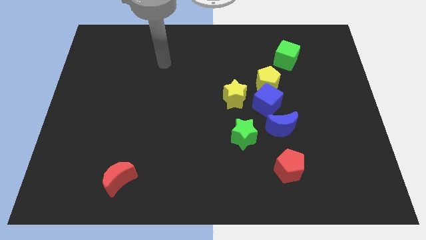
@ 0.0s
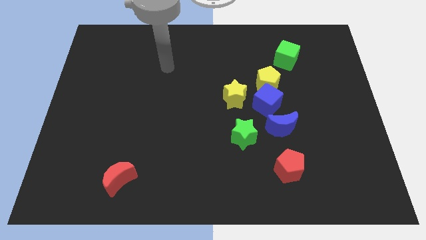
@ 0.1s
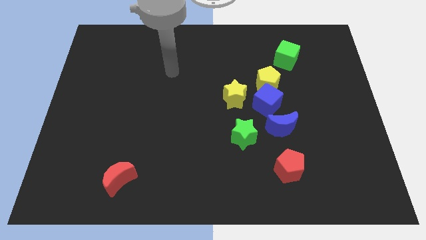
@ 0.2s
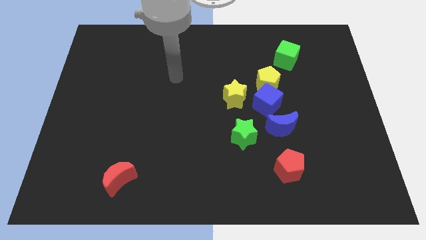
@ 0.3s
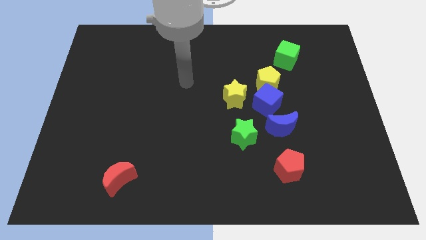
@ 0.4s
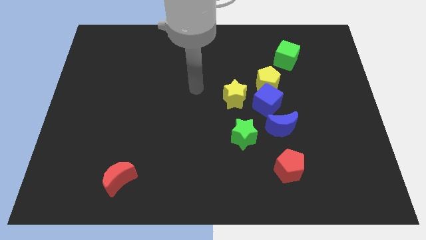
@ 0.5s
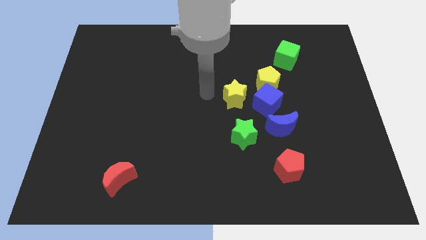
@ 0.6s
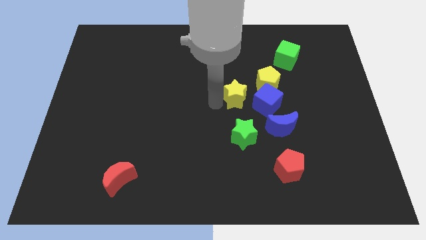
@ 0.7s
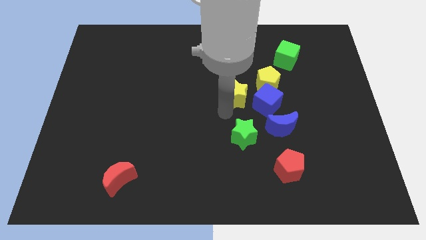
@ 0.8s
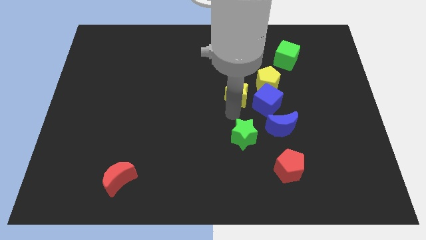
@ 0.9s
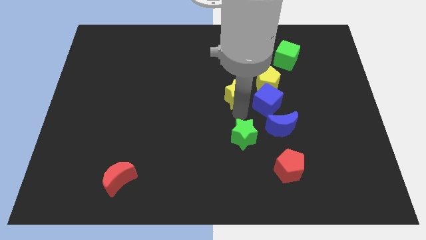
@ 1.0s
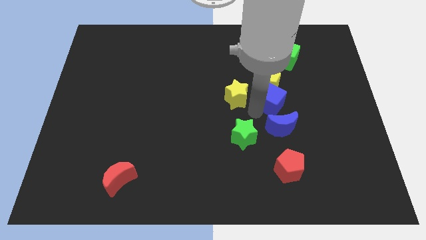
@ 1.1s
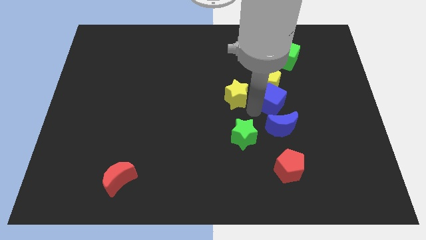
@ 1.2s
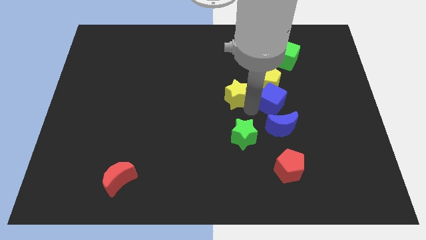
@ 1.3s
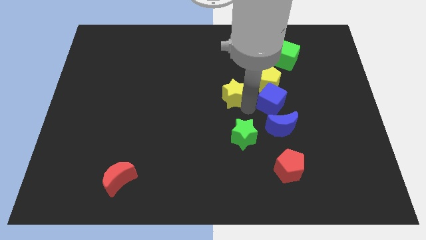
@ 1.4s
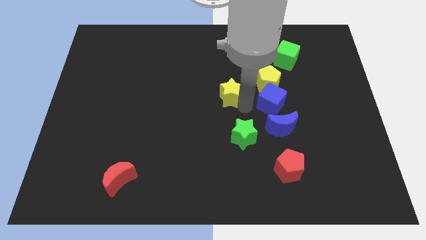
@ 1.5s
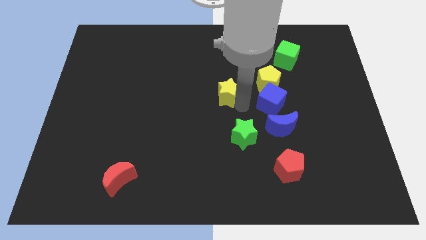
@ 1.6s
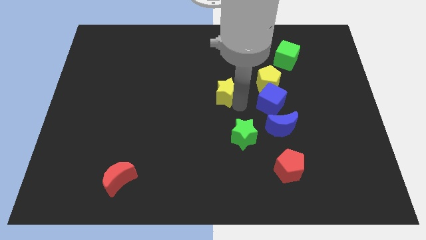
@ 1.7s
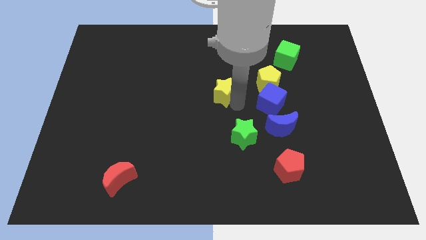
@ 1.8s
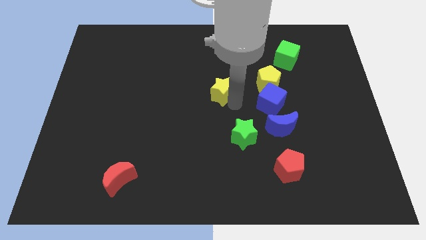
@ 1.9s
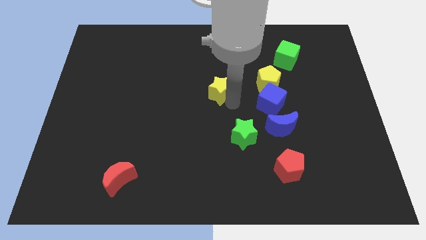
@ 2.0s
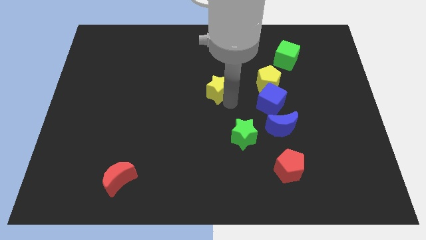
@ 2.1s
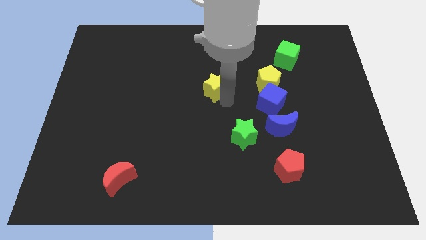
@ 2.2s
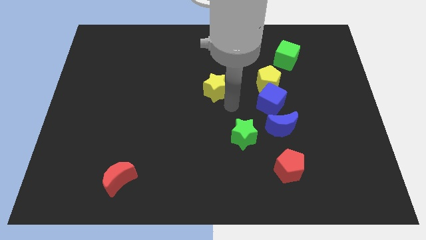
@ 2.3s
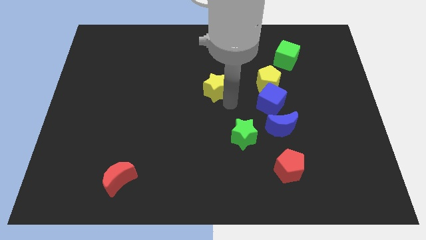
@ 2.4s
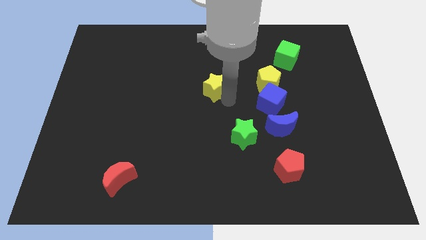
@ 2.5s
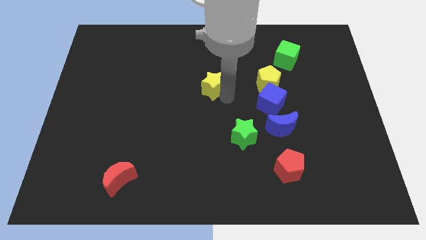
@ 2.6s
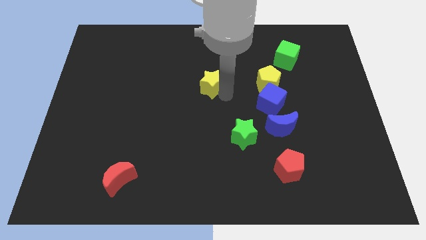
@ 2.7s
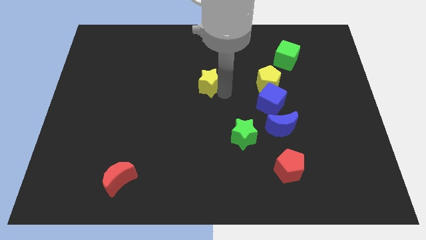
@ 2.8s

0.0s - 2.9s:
slightly move the yellow star diagonally up and to the left

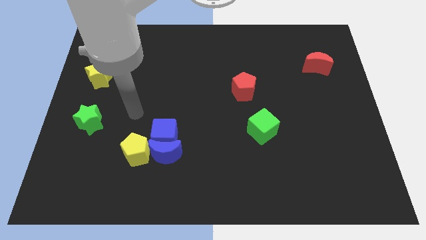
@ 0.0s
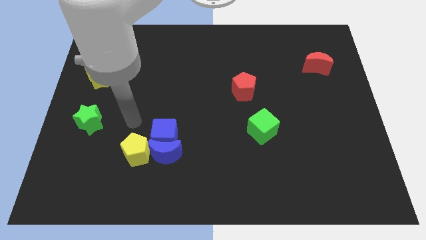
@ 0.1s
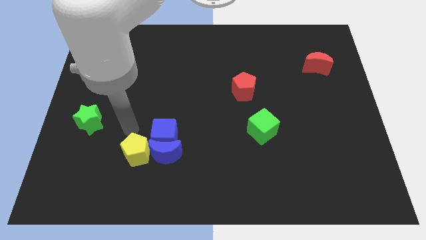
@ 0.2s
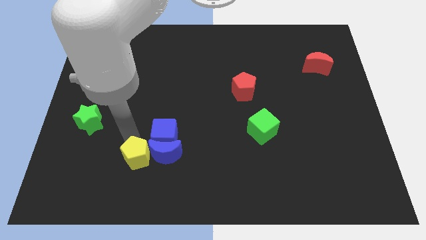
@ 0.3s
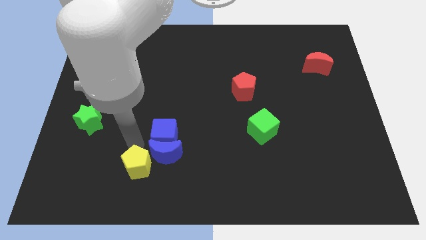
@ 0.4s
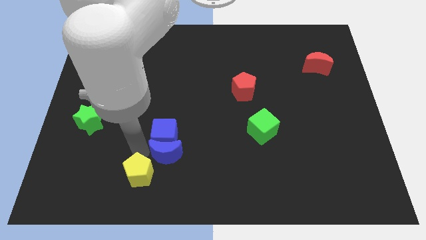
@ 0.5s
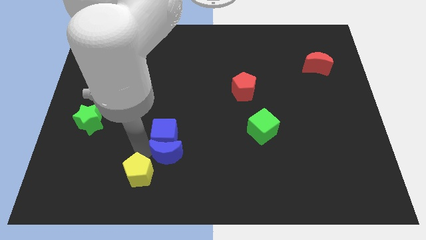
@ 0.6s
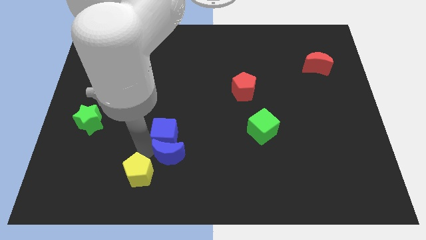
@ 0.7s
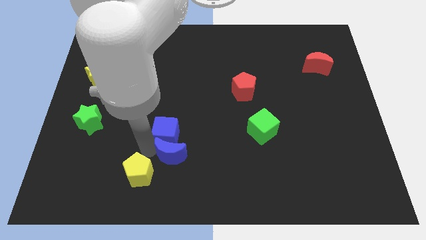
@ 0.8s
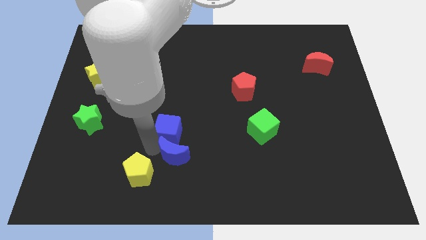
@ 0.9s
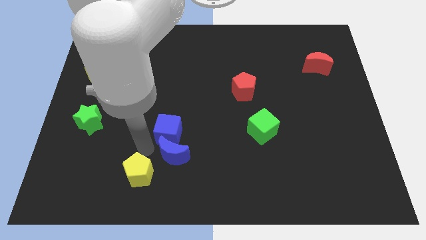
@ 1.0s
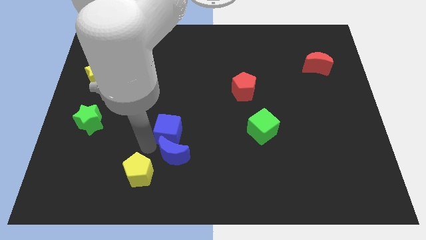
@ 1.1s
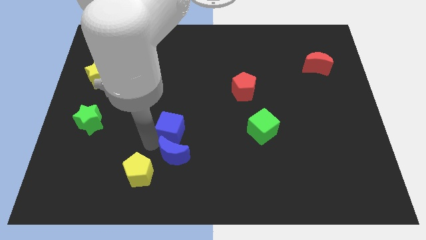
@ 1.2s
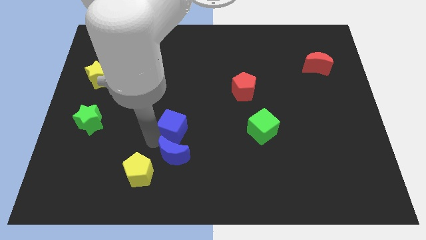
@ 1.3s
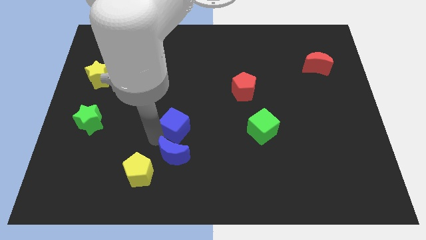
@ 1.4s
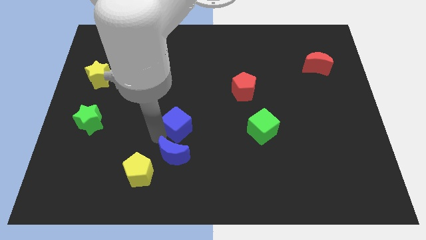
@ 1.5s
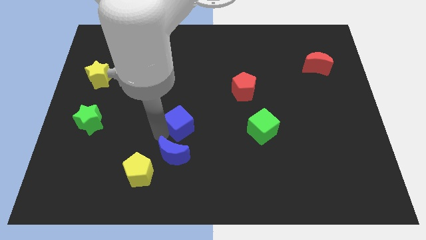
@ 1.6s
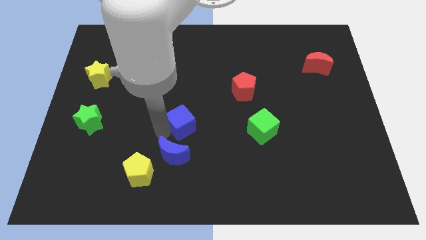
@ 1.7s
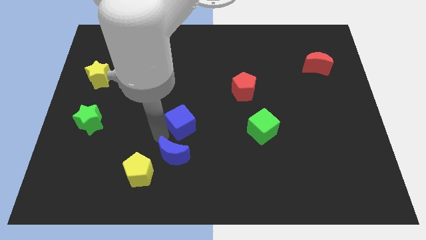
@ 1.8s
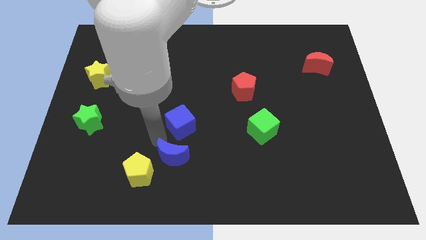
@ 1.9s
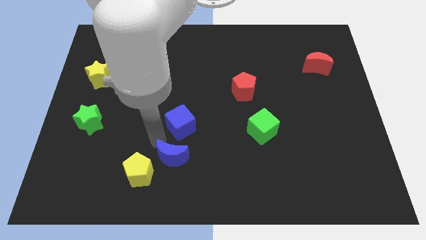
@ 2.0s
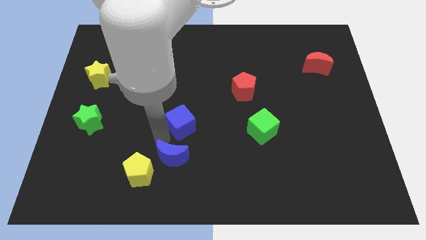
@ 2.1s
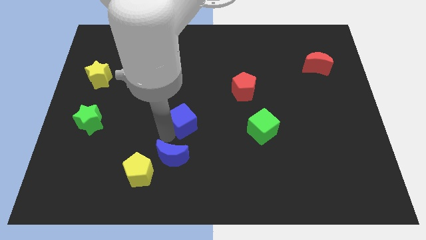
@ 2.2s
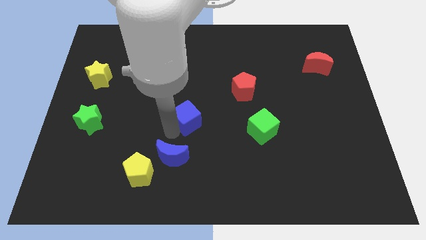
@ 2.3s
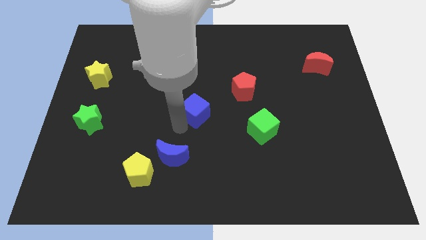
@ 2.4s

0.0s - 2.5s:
move the blue cube a little diagonally upwards and to the right

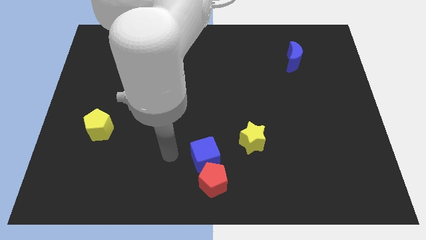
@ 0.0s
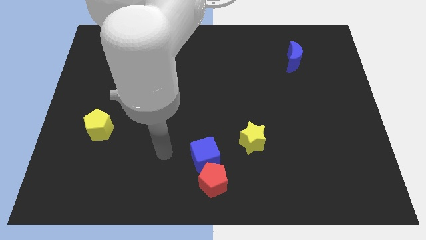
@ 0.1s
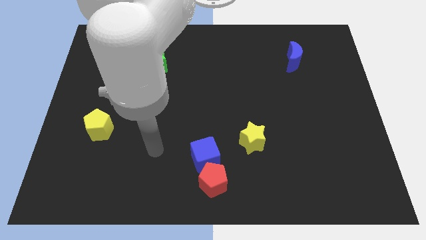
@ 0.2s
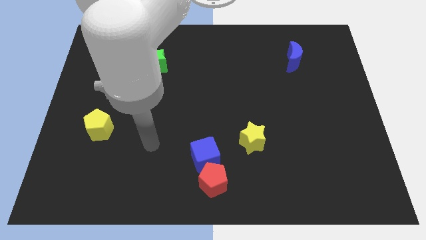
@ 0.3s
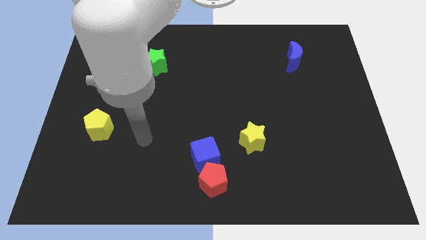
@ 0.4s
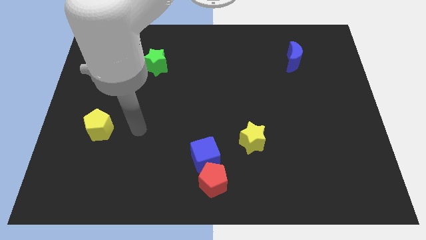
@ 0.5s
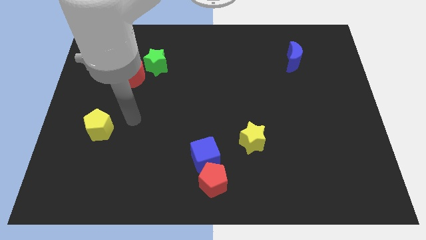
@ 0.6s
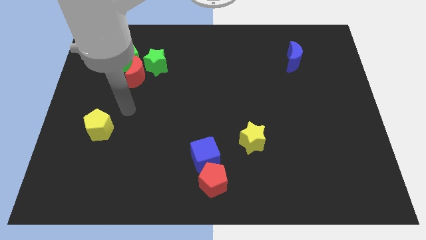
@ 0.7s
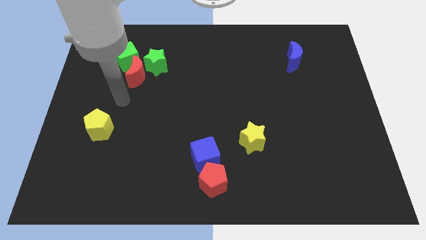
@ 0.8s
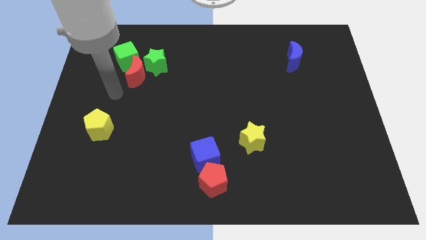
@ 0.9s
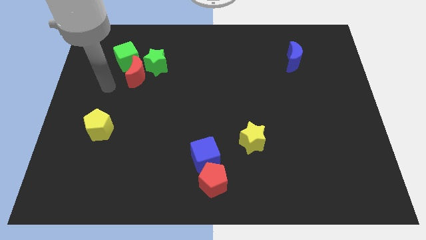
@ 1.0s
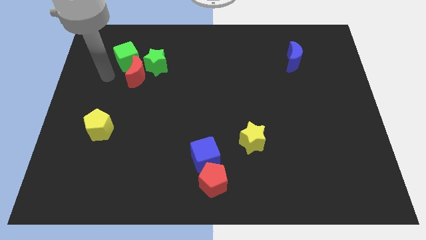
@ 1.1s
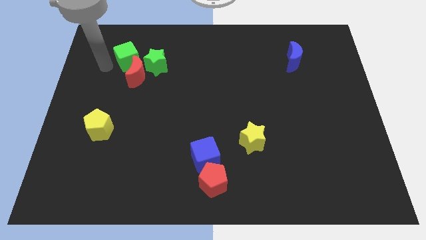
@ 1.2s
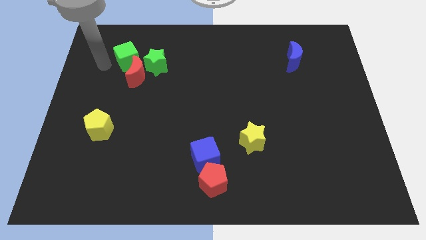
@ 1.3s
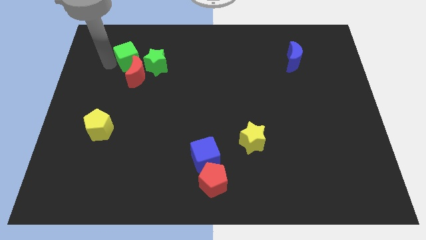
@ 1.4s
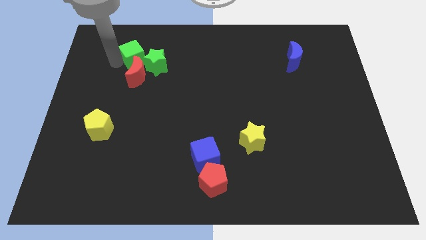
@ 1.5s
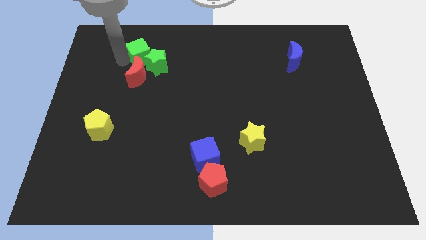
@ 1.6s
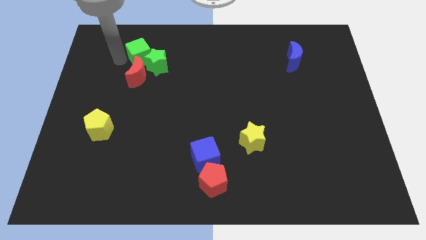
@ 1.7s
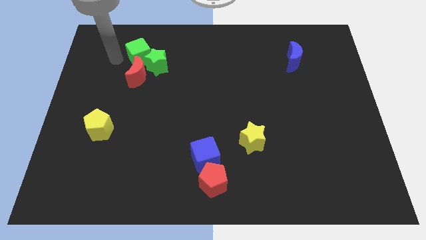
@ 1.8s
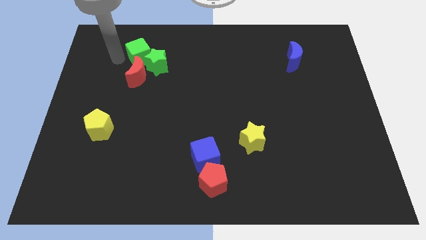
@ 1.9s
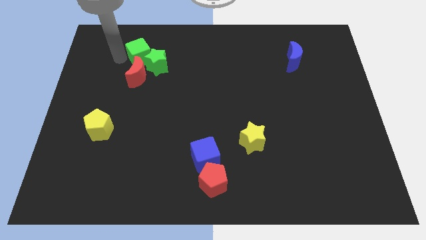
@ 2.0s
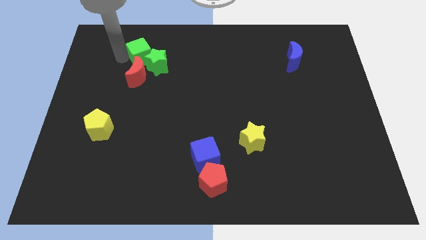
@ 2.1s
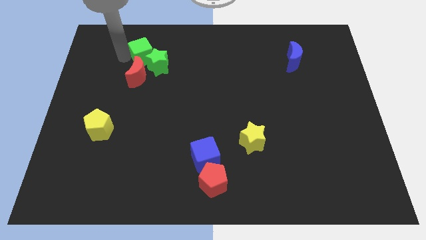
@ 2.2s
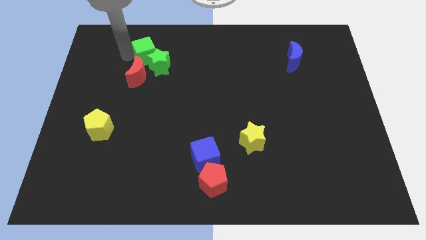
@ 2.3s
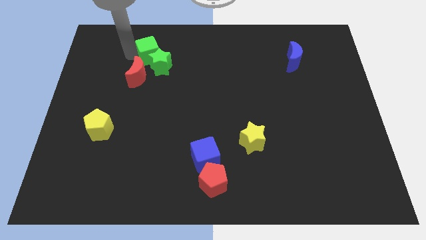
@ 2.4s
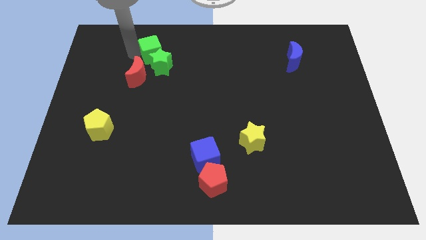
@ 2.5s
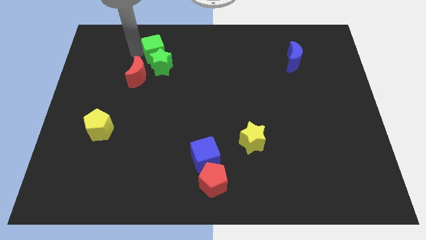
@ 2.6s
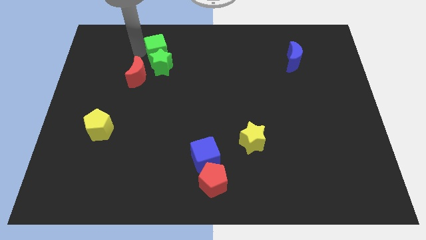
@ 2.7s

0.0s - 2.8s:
push the green cube a little bit right
